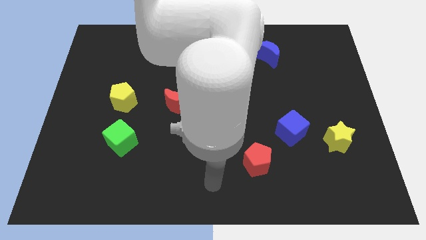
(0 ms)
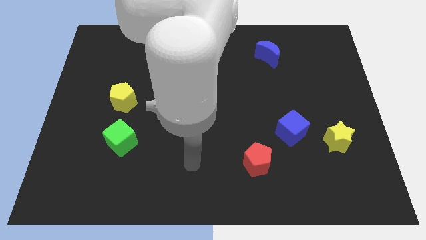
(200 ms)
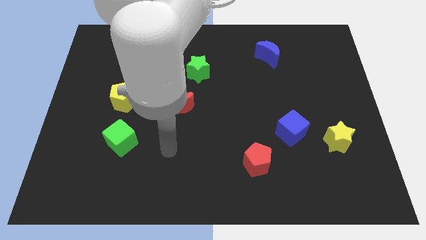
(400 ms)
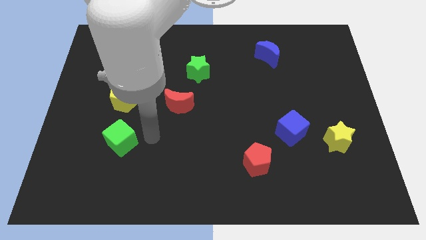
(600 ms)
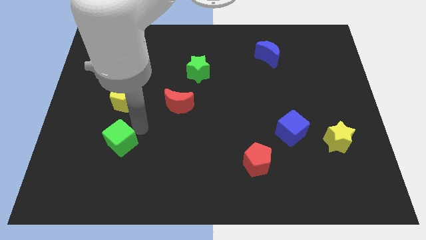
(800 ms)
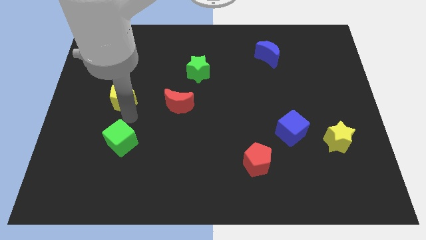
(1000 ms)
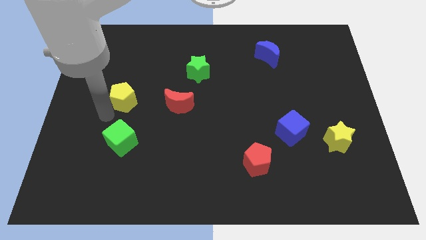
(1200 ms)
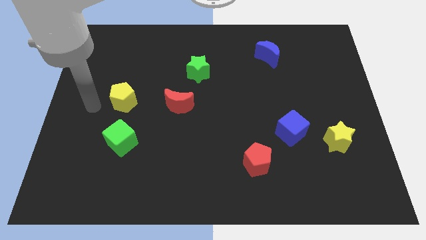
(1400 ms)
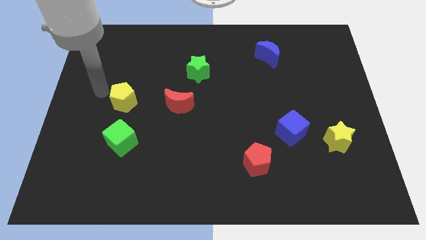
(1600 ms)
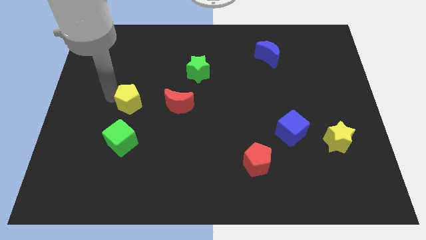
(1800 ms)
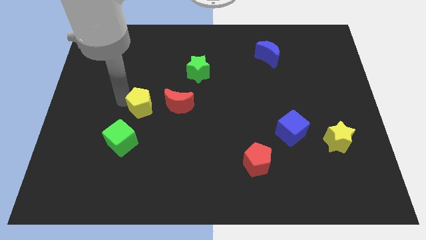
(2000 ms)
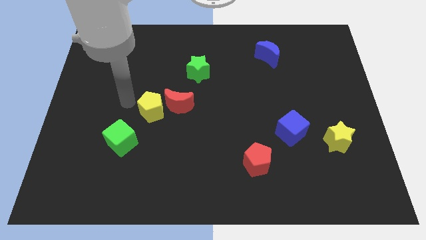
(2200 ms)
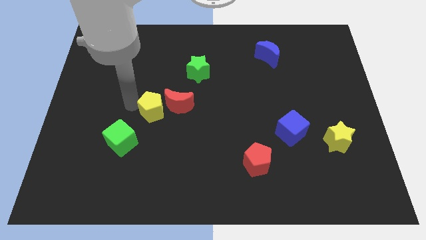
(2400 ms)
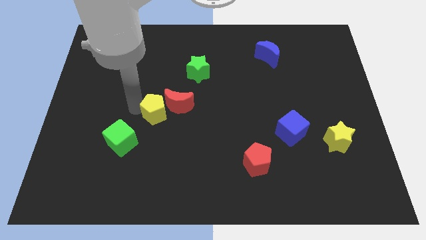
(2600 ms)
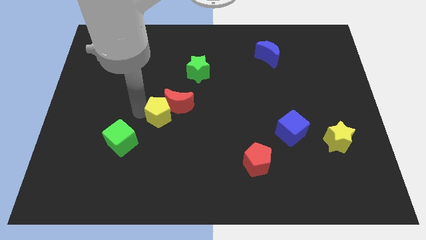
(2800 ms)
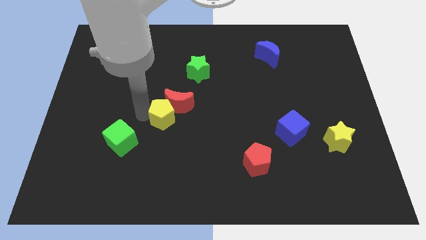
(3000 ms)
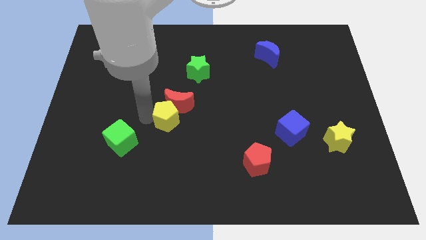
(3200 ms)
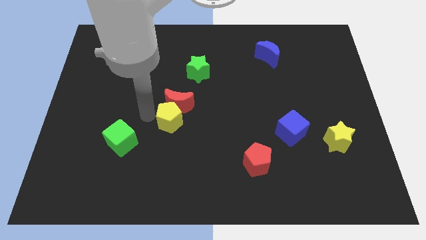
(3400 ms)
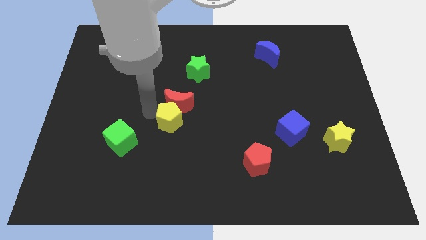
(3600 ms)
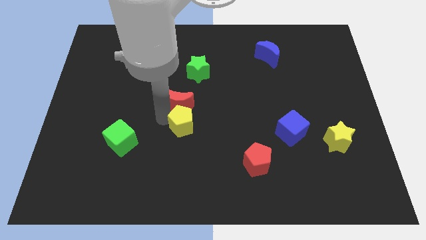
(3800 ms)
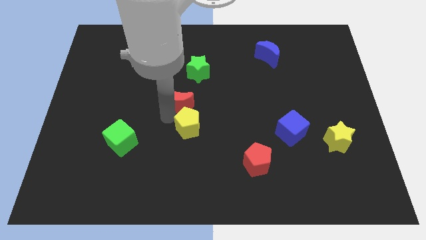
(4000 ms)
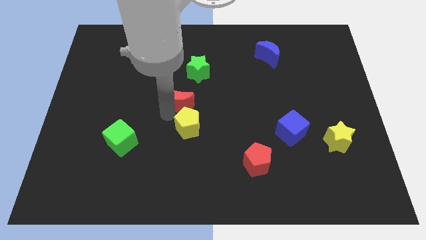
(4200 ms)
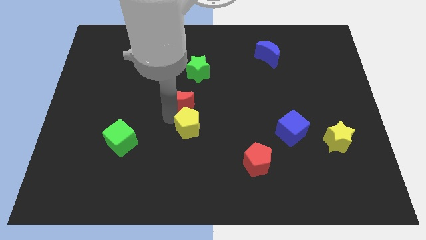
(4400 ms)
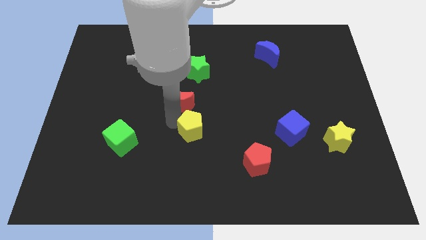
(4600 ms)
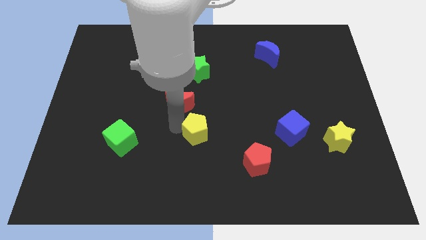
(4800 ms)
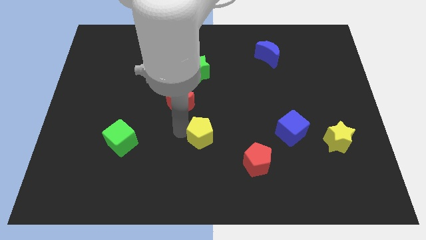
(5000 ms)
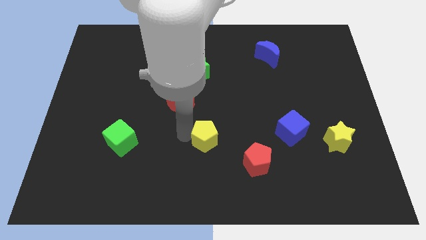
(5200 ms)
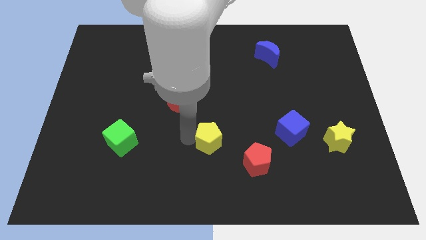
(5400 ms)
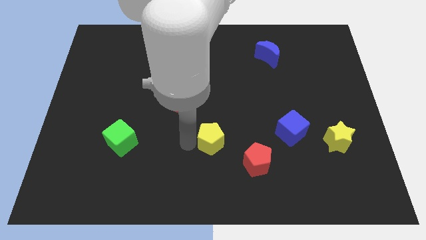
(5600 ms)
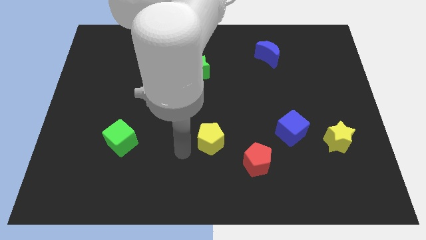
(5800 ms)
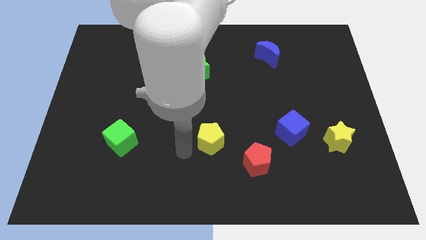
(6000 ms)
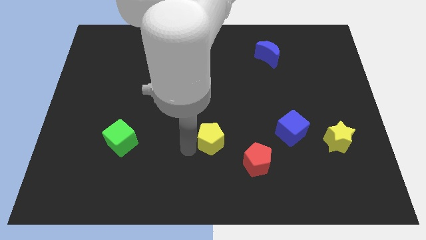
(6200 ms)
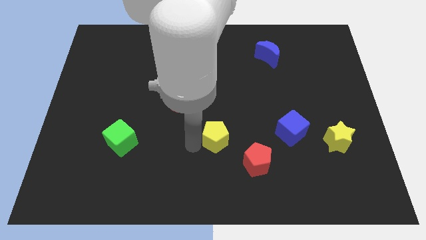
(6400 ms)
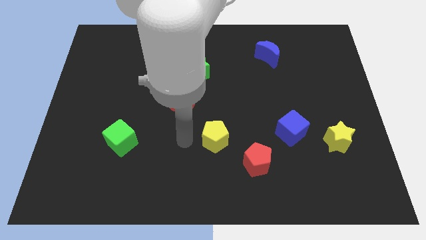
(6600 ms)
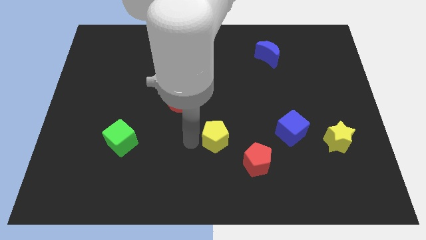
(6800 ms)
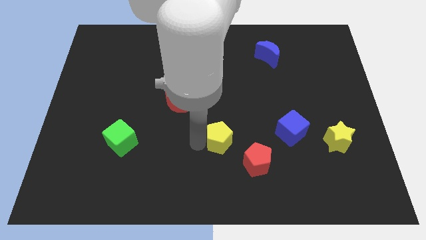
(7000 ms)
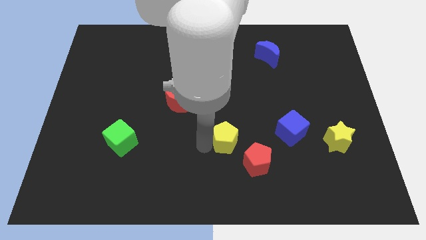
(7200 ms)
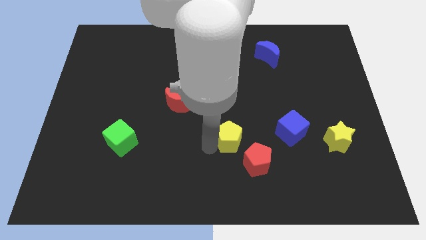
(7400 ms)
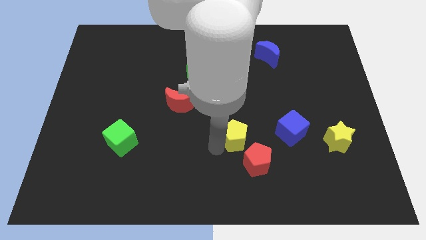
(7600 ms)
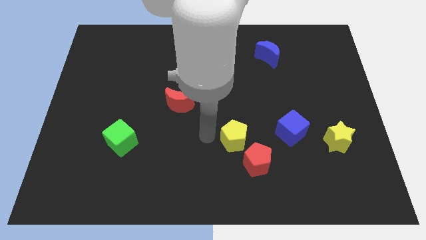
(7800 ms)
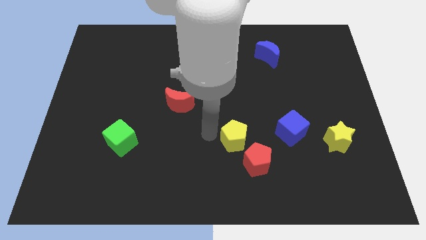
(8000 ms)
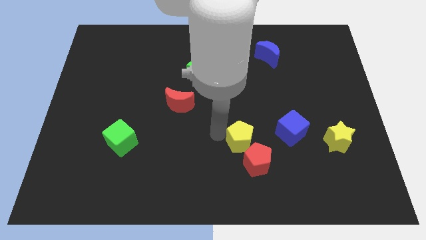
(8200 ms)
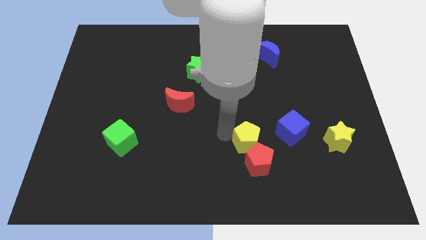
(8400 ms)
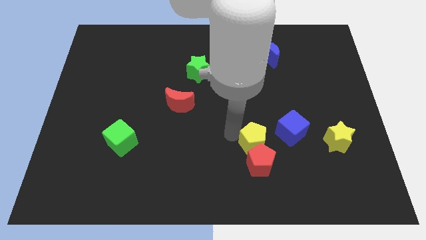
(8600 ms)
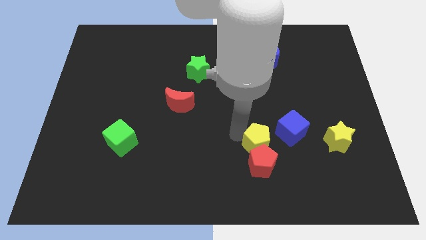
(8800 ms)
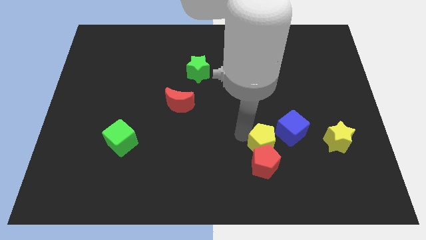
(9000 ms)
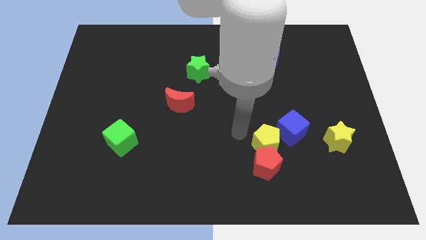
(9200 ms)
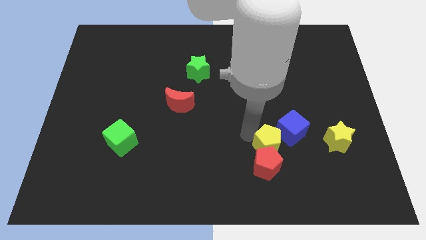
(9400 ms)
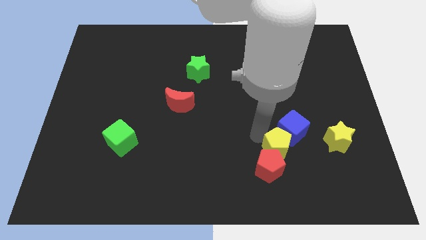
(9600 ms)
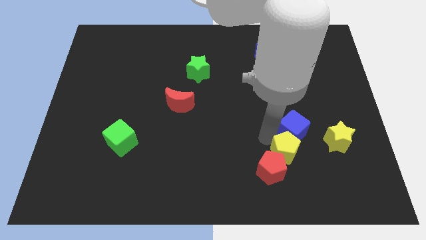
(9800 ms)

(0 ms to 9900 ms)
slide the yellow pentagon just right of the red pentagon

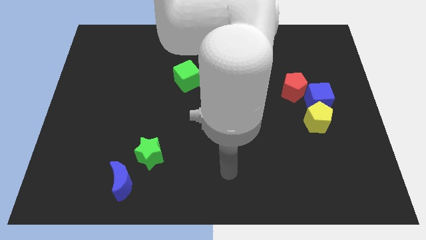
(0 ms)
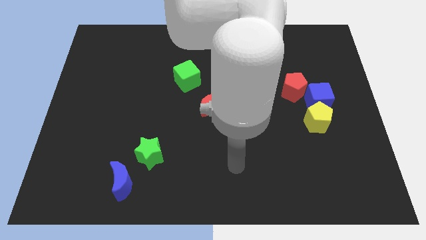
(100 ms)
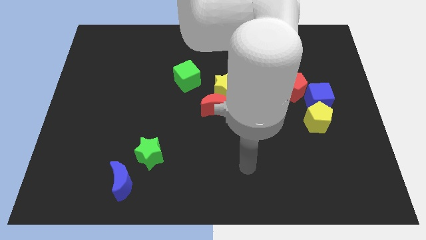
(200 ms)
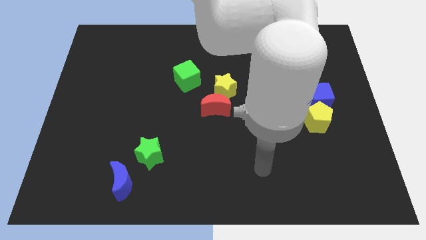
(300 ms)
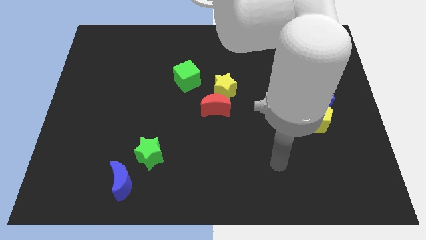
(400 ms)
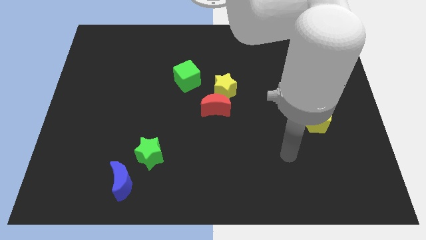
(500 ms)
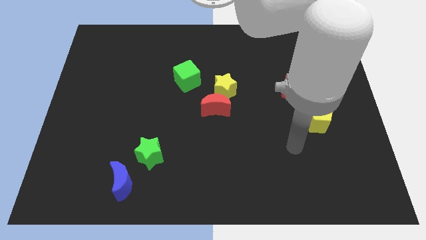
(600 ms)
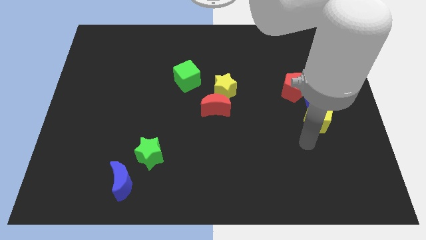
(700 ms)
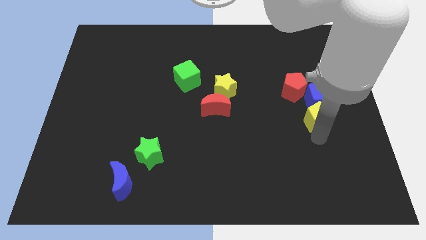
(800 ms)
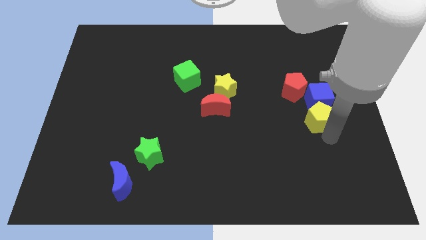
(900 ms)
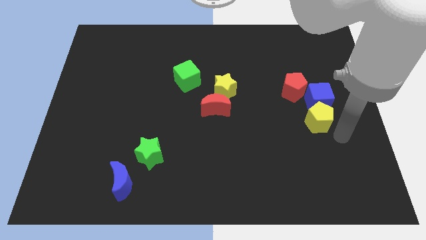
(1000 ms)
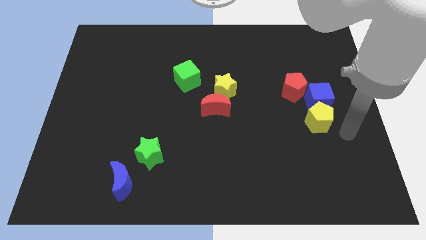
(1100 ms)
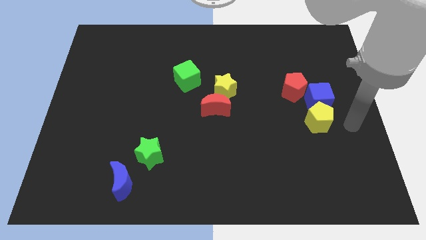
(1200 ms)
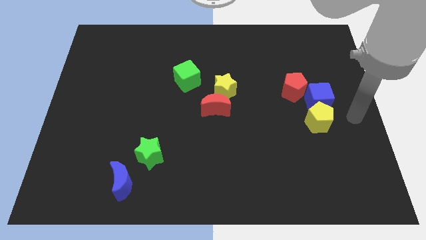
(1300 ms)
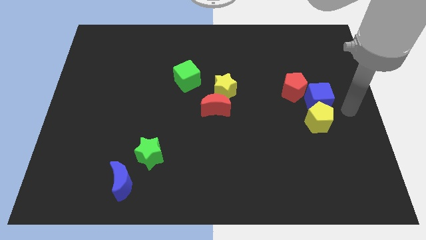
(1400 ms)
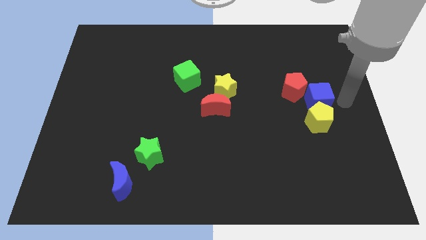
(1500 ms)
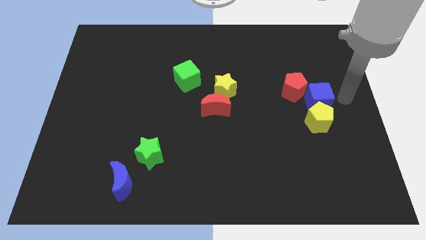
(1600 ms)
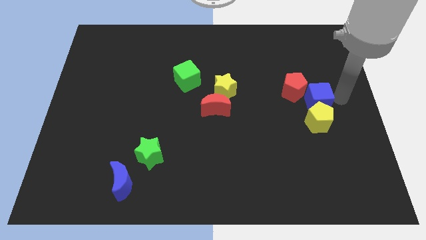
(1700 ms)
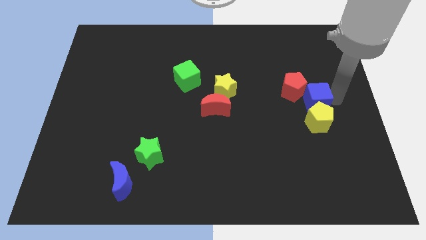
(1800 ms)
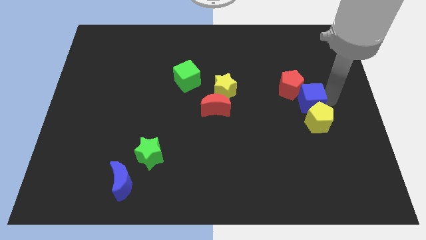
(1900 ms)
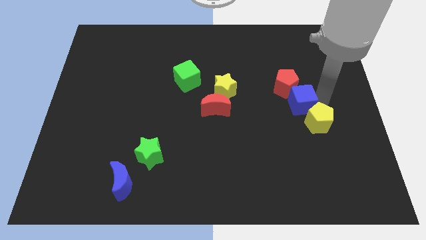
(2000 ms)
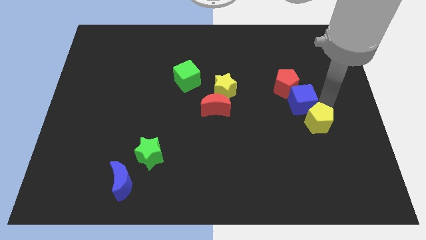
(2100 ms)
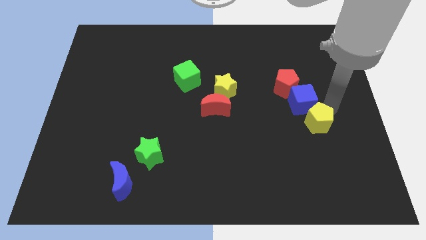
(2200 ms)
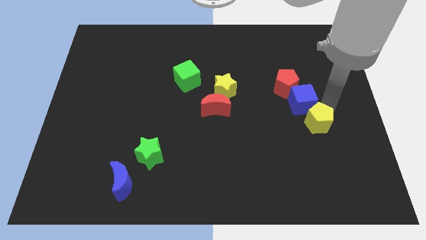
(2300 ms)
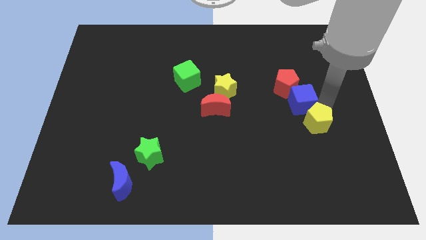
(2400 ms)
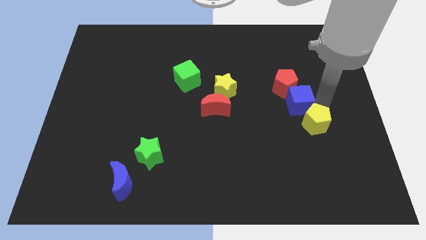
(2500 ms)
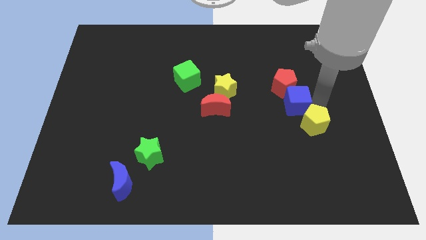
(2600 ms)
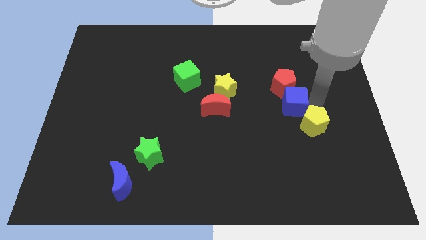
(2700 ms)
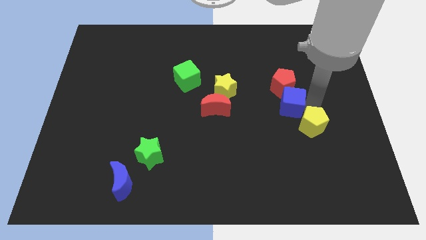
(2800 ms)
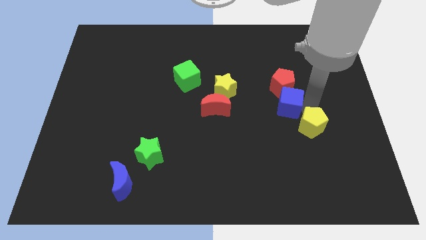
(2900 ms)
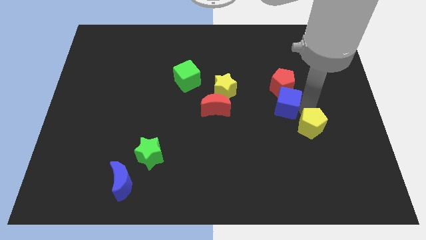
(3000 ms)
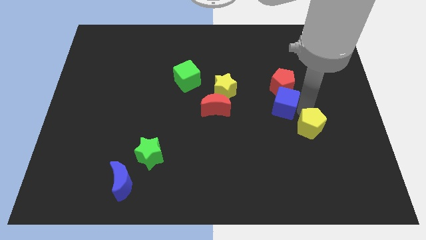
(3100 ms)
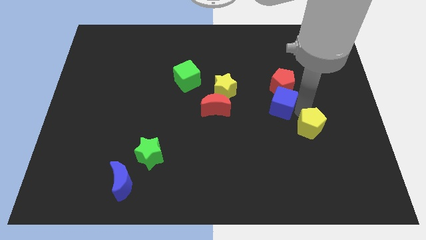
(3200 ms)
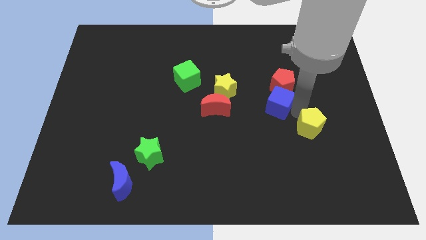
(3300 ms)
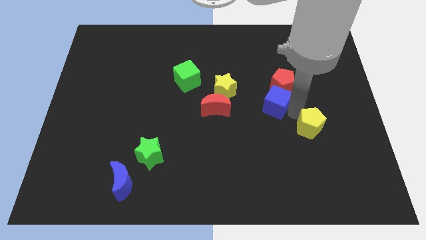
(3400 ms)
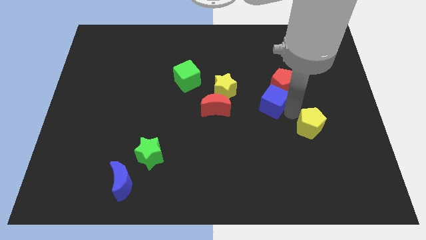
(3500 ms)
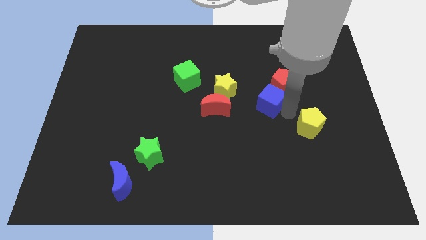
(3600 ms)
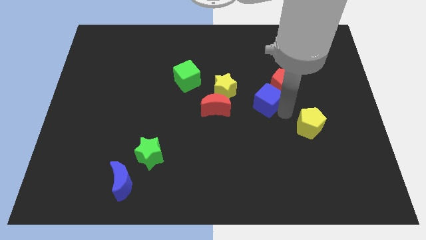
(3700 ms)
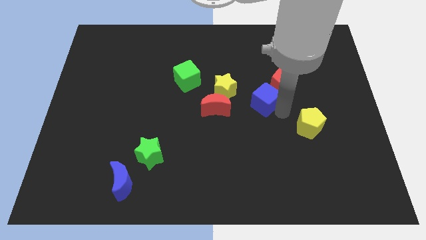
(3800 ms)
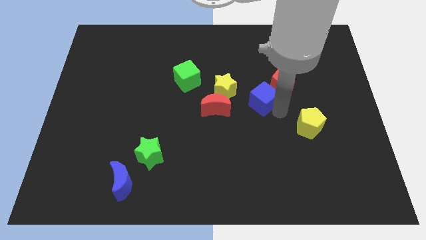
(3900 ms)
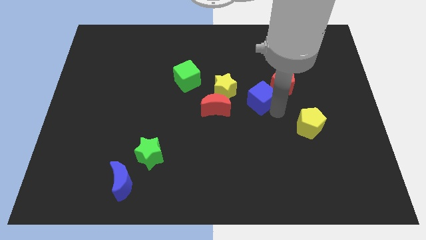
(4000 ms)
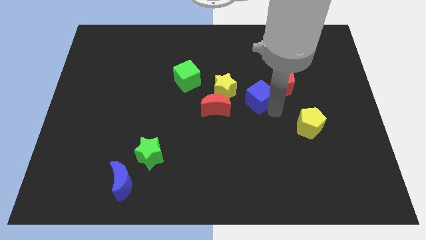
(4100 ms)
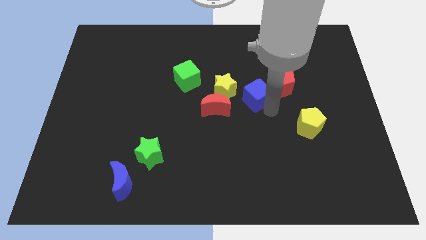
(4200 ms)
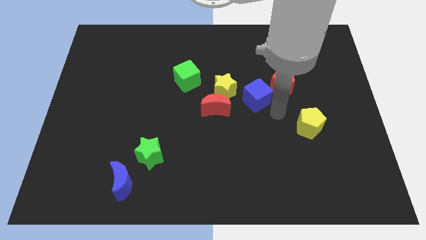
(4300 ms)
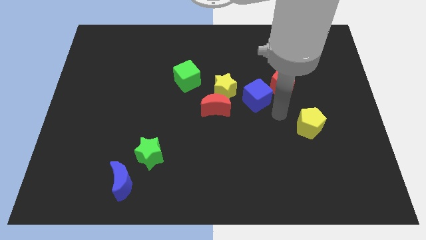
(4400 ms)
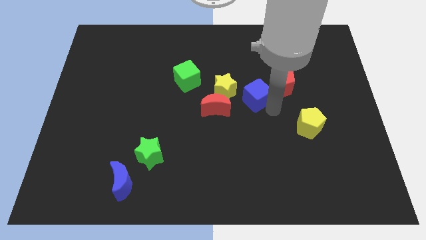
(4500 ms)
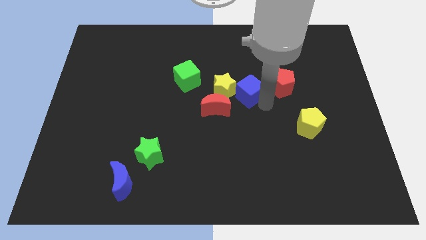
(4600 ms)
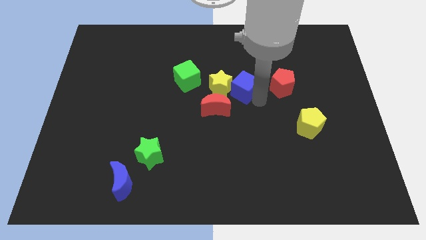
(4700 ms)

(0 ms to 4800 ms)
put the blue cube to the right side of the green cube
